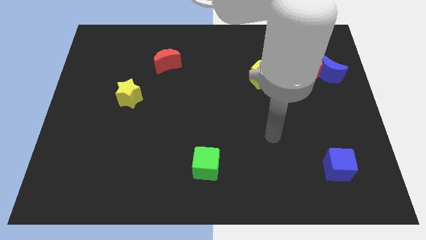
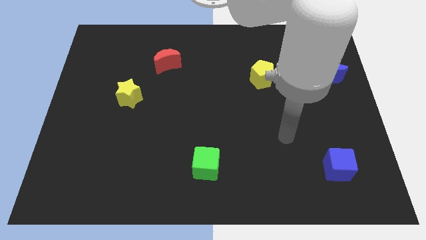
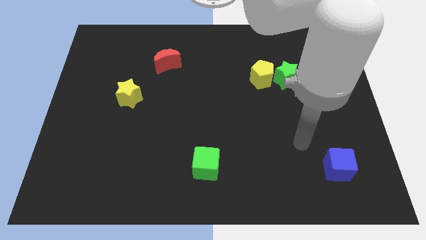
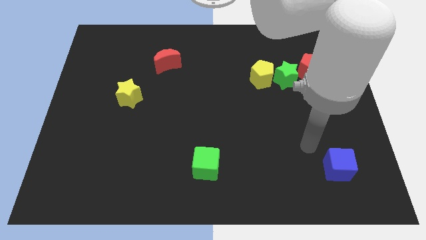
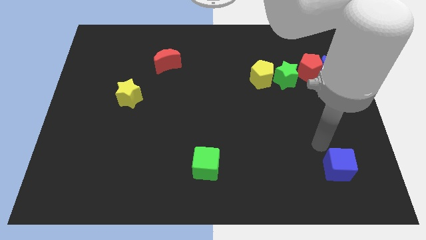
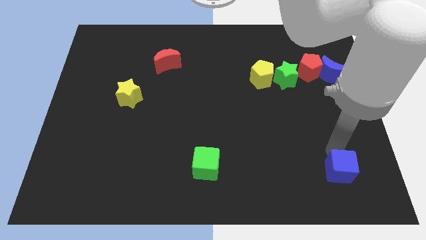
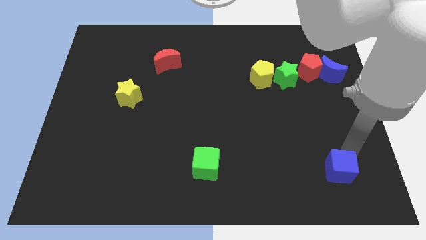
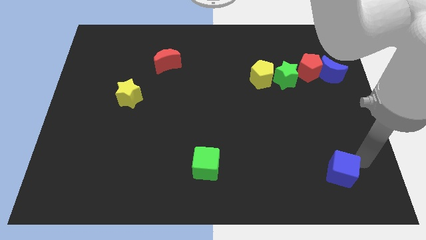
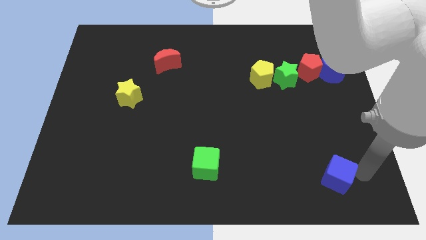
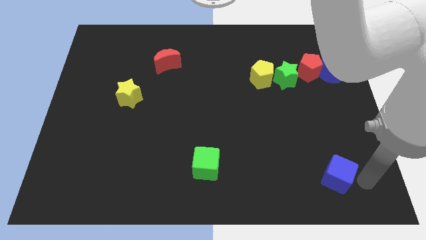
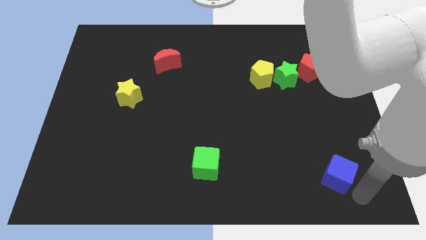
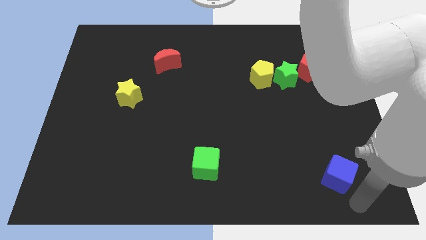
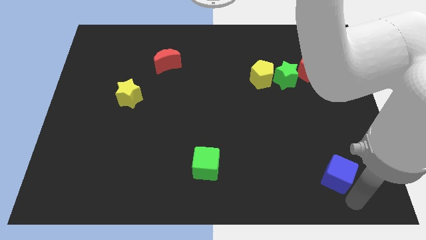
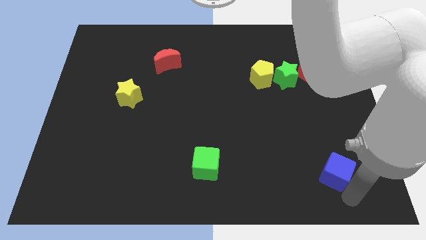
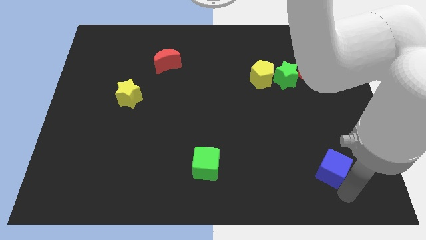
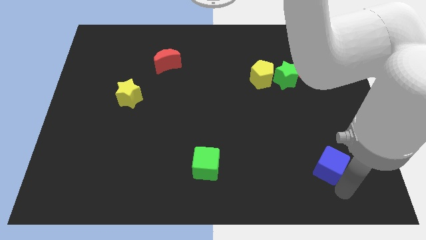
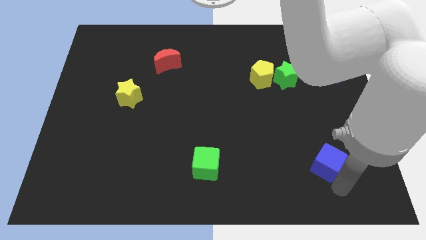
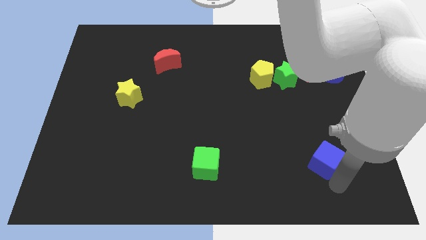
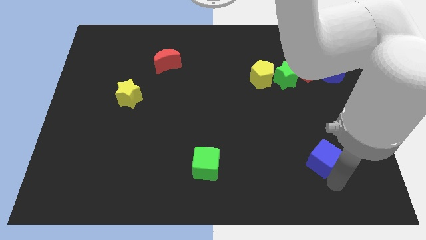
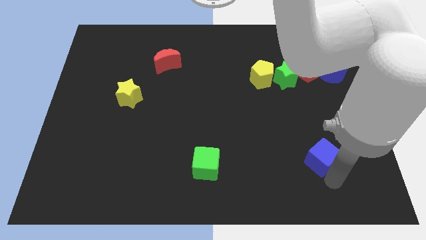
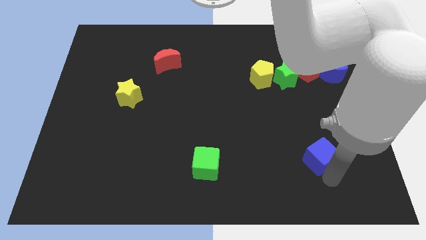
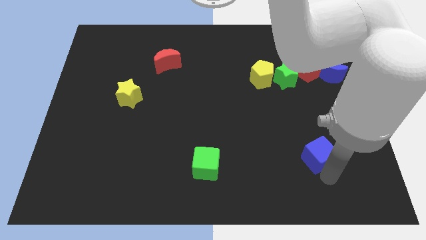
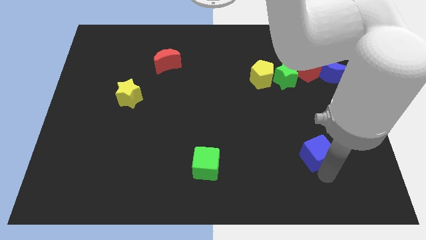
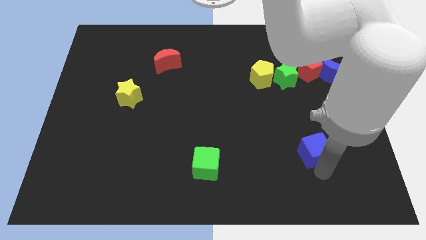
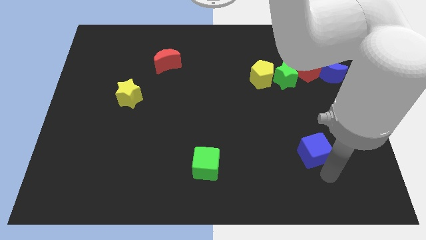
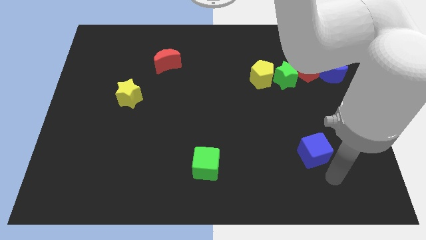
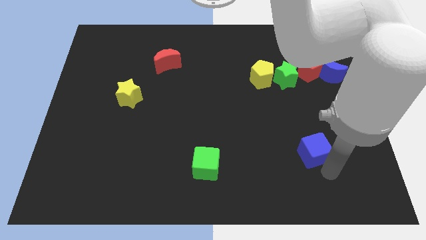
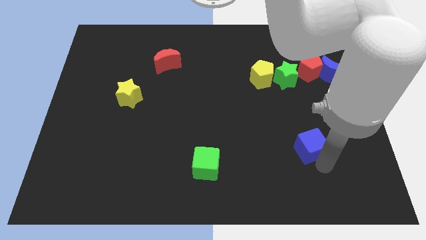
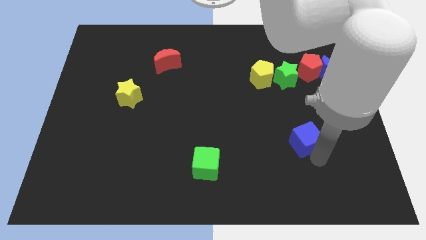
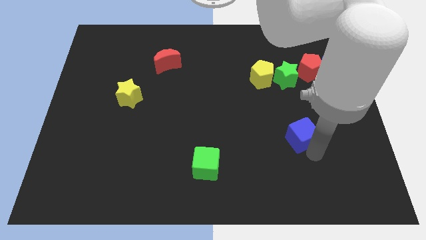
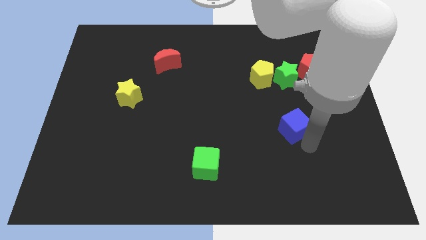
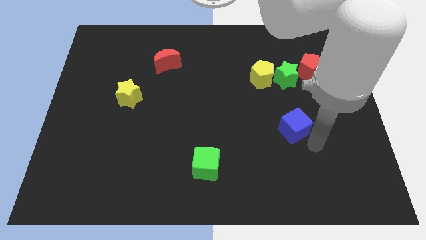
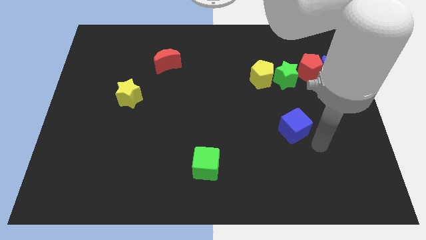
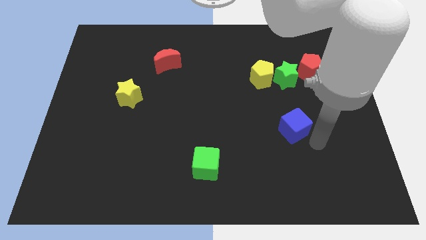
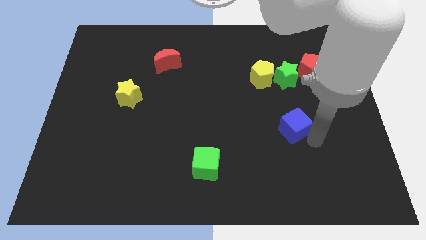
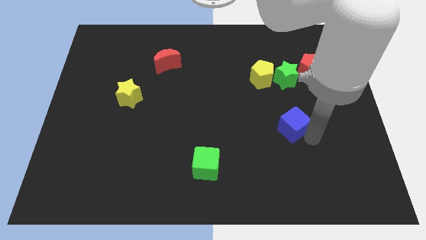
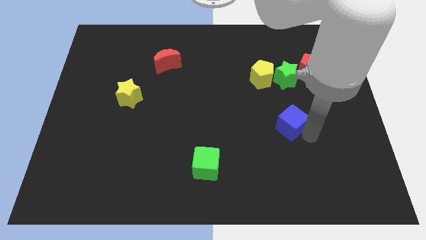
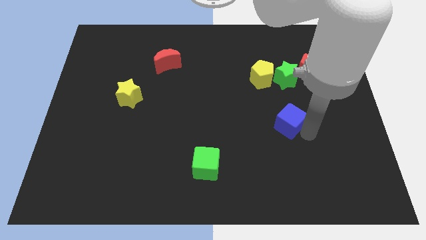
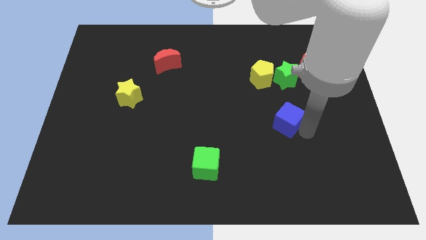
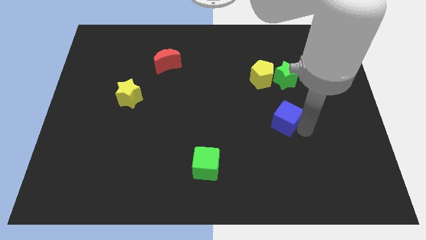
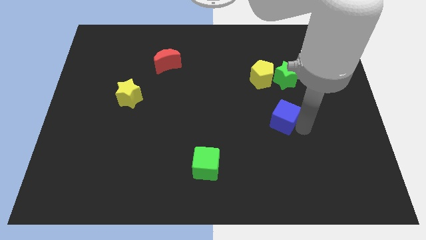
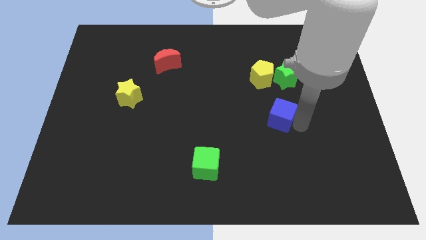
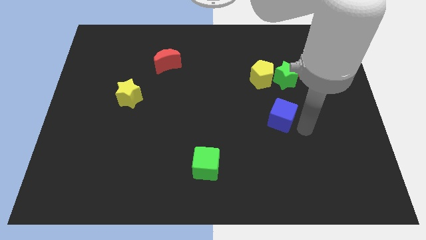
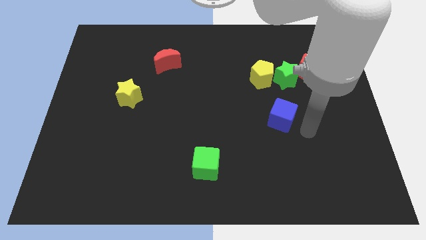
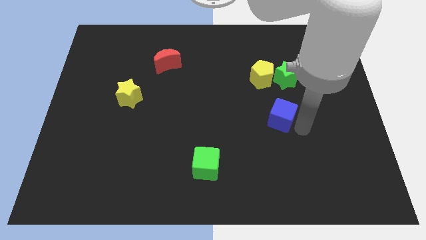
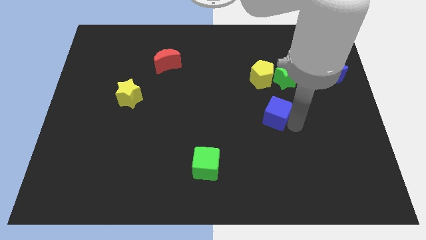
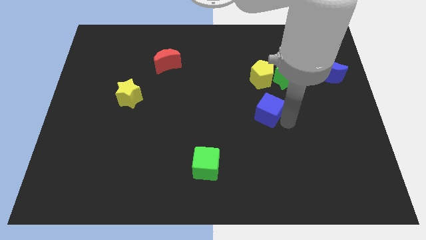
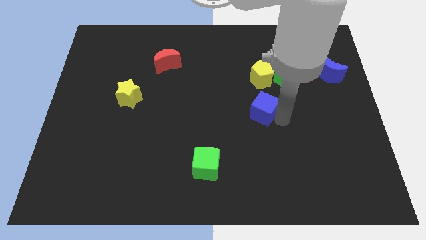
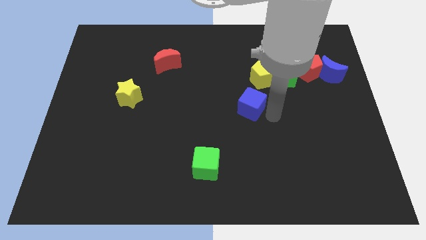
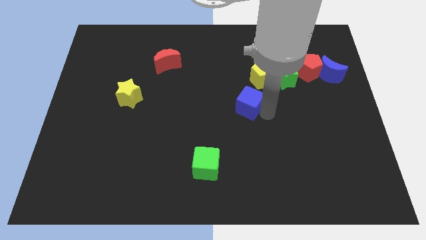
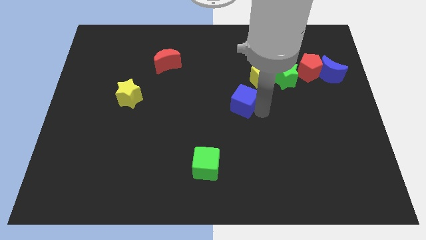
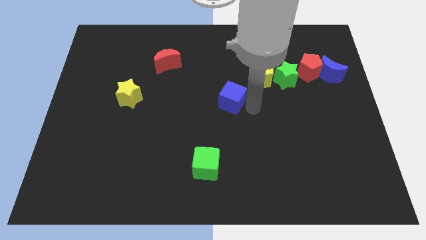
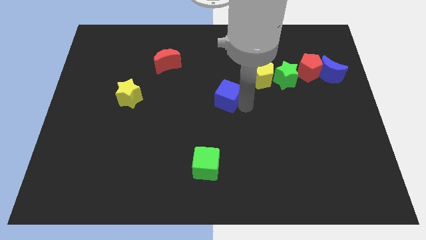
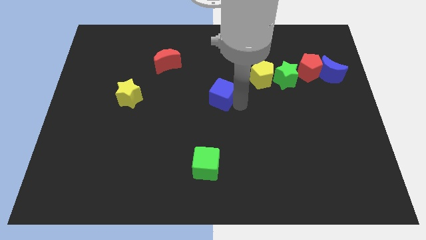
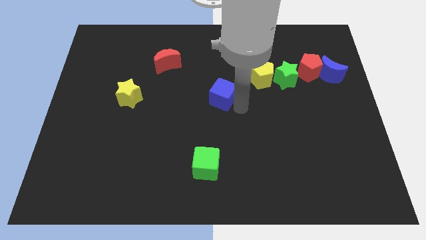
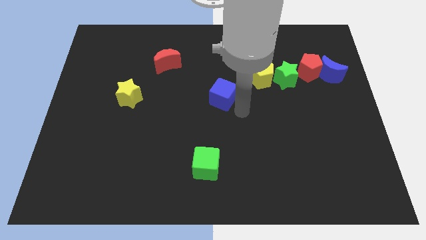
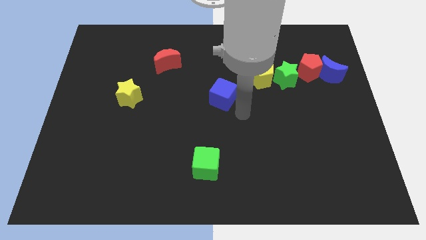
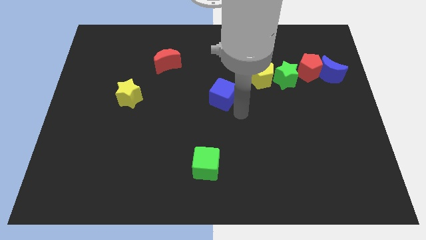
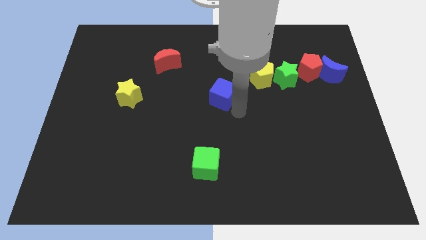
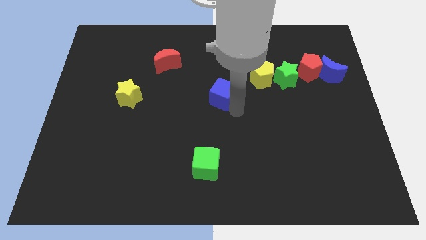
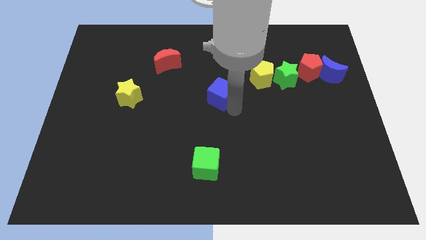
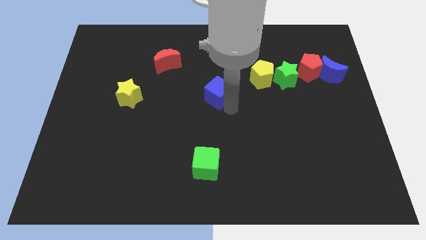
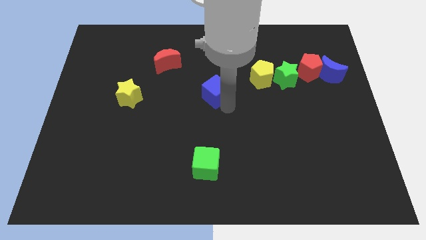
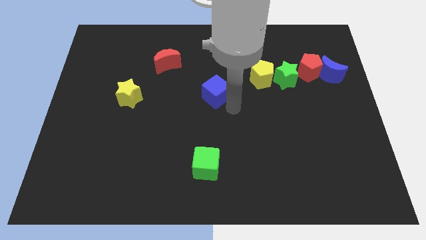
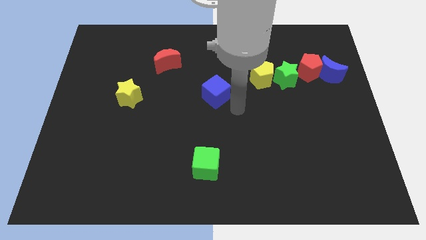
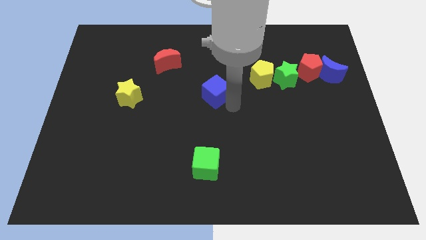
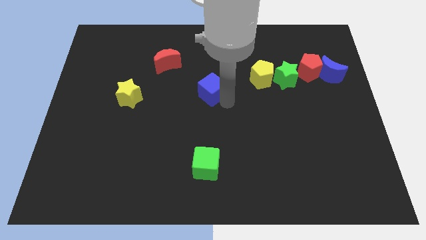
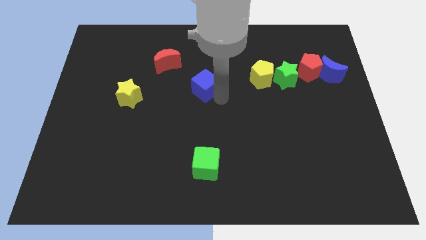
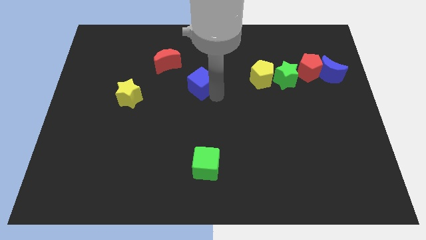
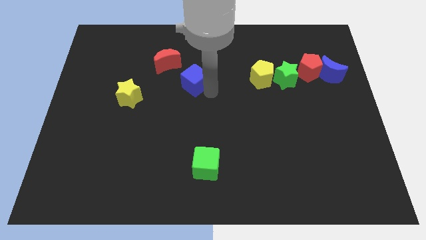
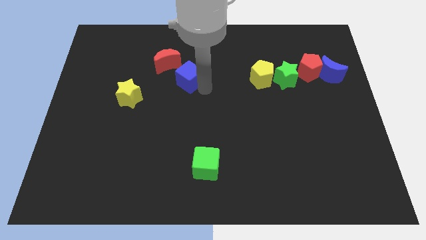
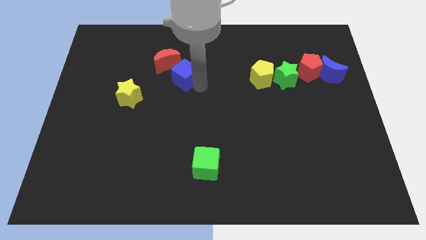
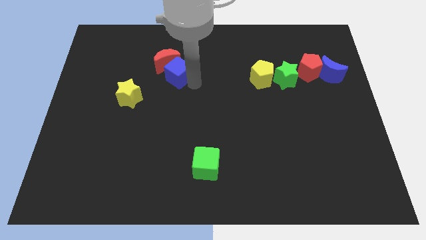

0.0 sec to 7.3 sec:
push the blue cube close to the red moon

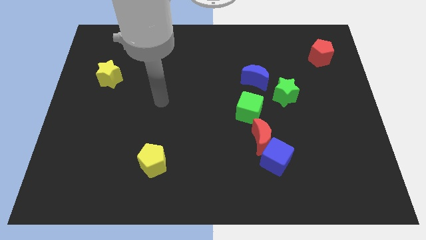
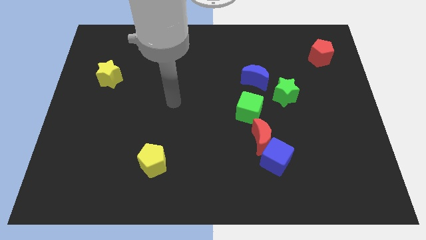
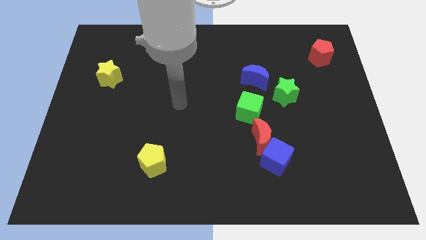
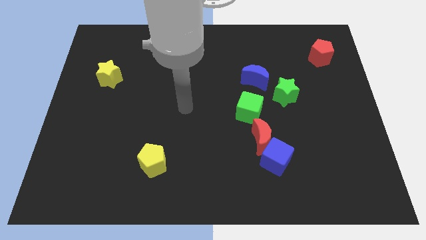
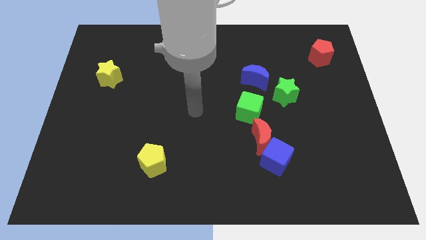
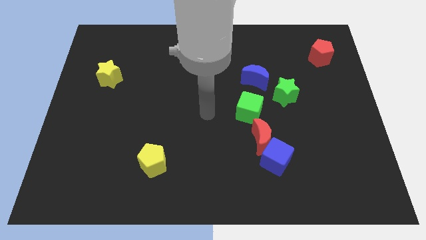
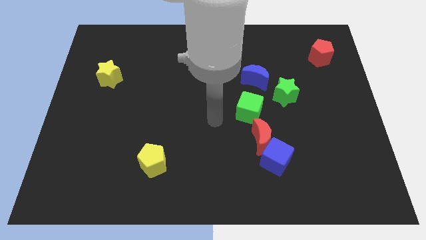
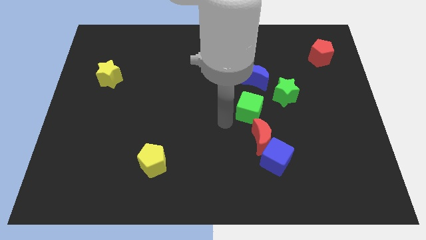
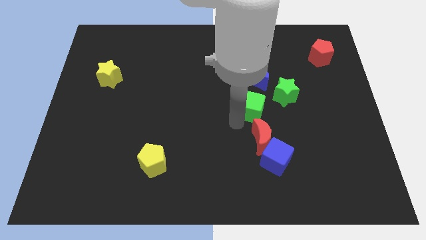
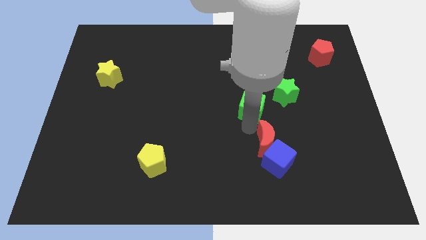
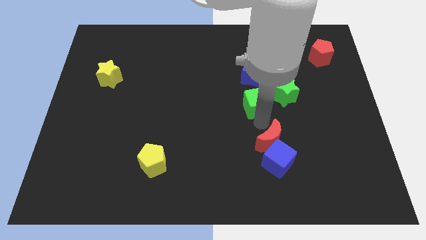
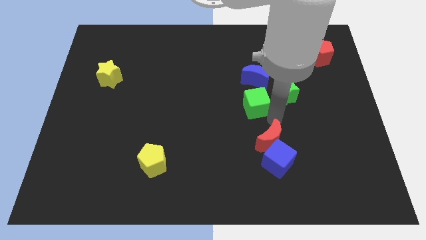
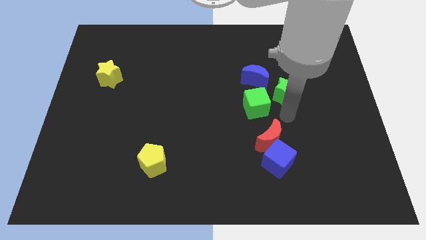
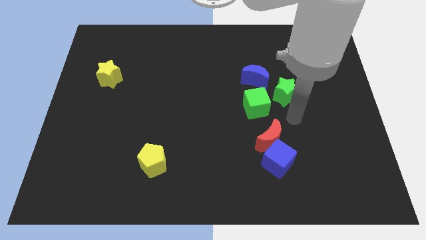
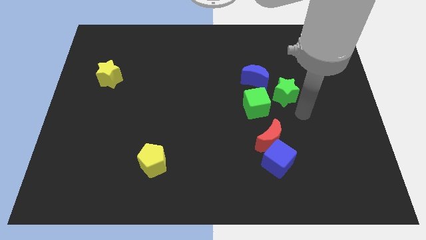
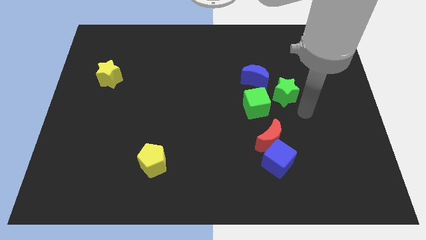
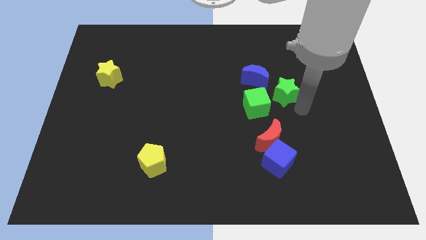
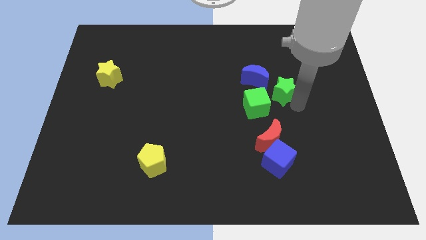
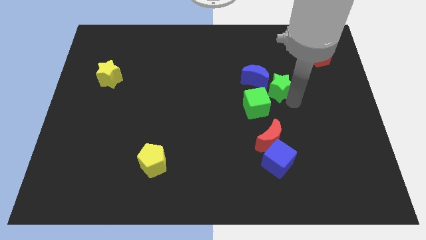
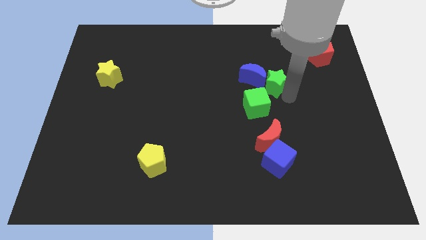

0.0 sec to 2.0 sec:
push the green star to the blue moon
